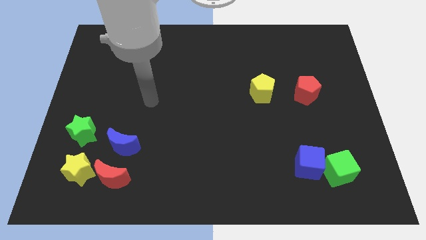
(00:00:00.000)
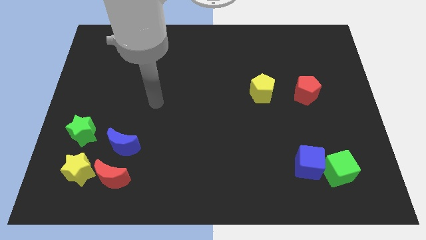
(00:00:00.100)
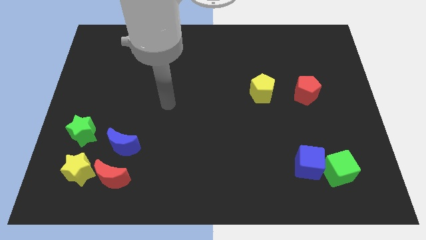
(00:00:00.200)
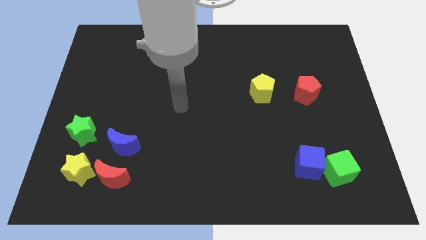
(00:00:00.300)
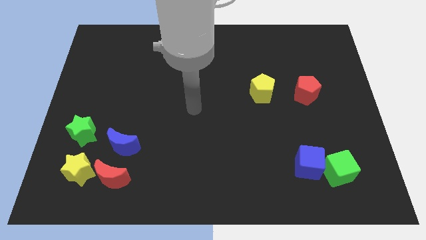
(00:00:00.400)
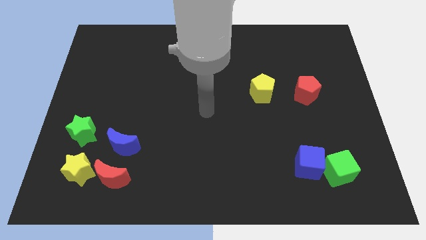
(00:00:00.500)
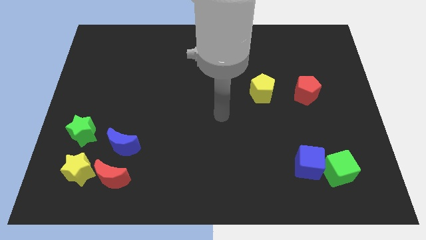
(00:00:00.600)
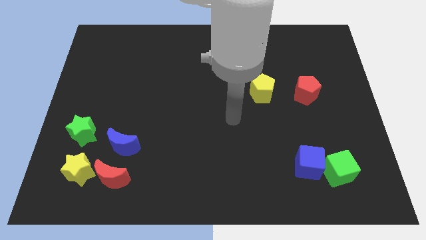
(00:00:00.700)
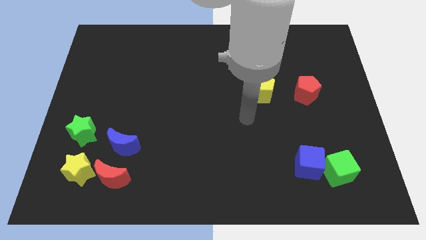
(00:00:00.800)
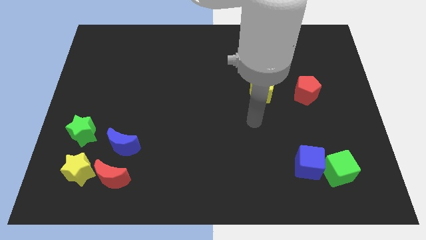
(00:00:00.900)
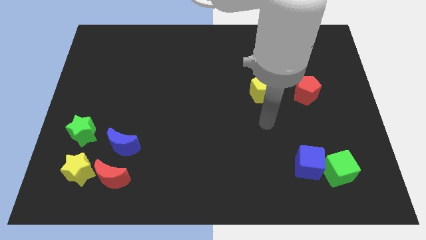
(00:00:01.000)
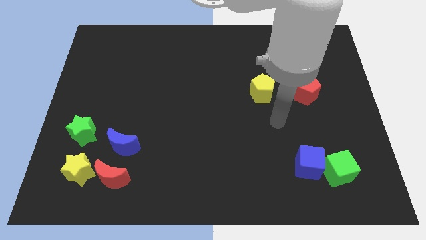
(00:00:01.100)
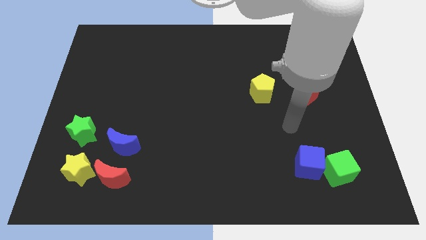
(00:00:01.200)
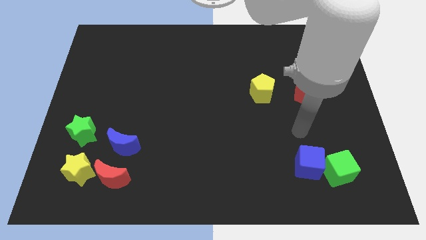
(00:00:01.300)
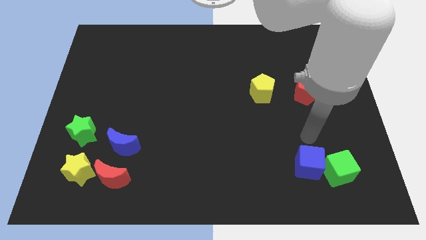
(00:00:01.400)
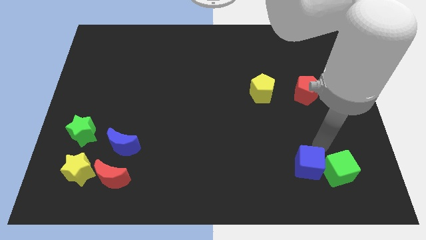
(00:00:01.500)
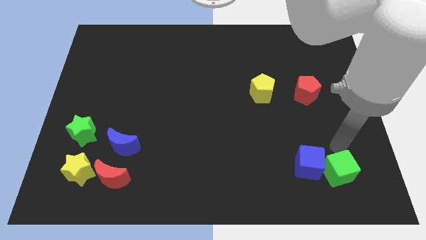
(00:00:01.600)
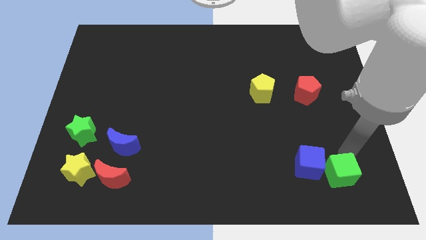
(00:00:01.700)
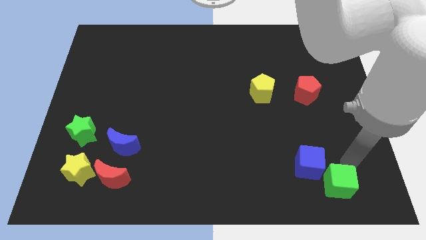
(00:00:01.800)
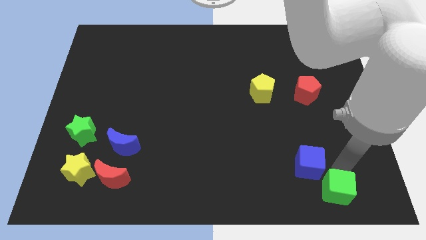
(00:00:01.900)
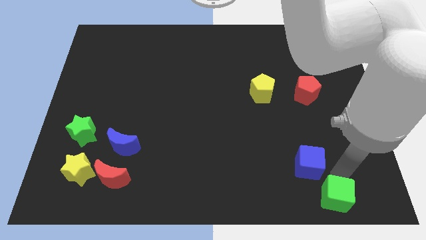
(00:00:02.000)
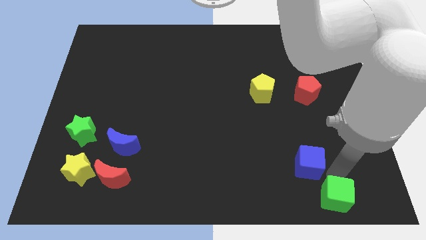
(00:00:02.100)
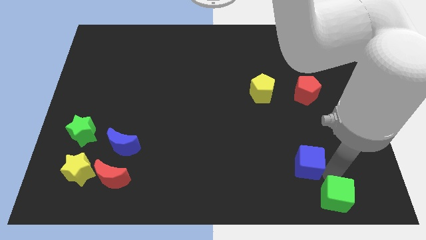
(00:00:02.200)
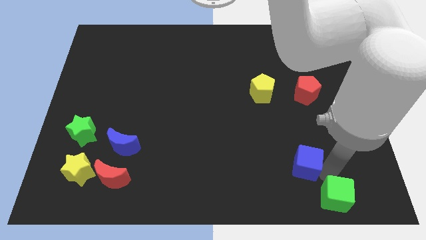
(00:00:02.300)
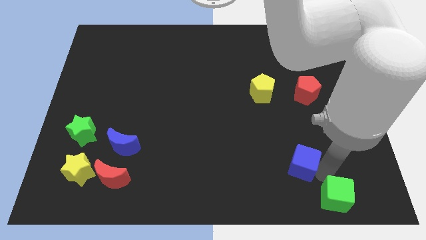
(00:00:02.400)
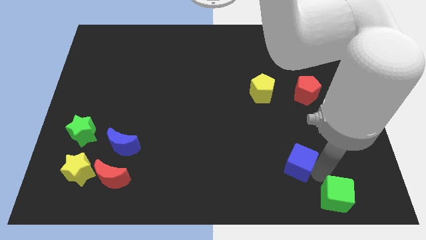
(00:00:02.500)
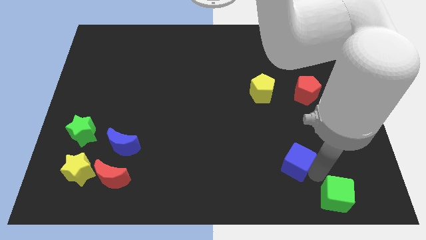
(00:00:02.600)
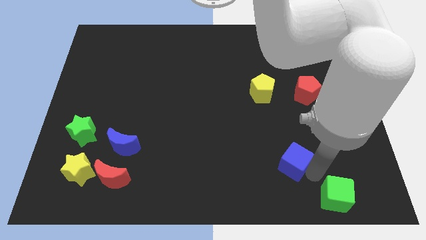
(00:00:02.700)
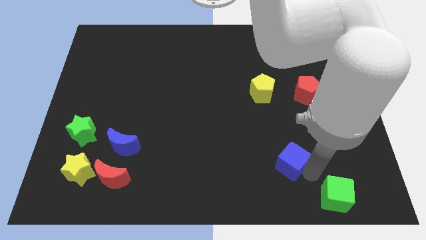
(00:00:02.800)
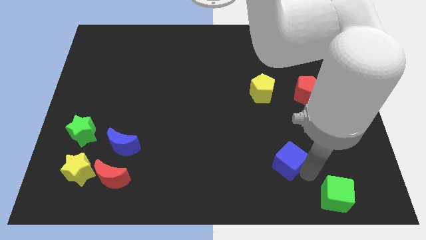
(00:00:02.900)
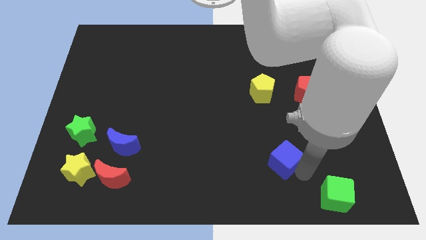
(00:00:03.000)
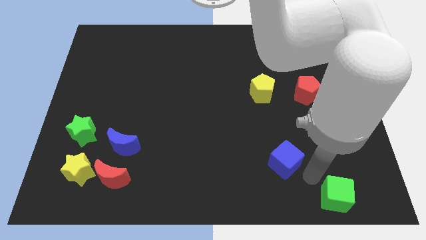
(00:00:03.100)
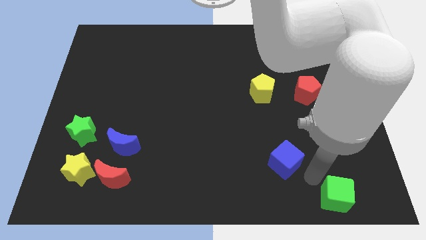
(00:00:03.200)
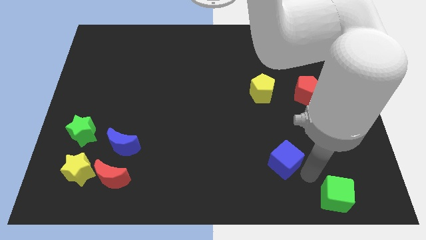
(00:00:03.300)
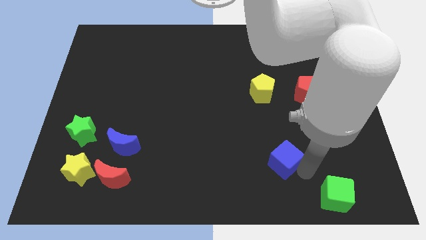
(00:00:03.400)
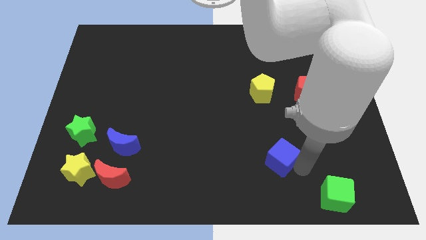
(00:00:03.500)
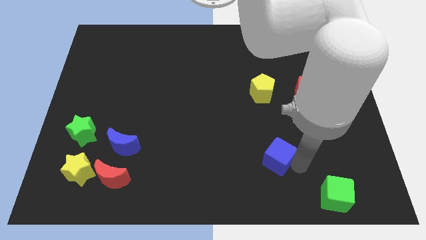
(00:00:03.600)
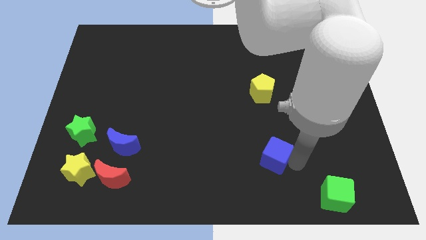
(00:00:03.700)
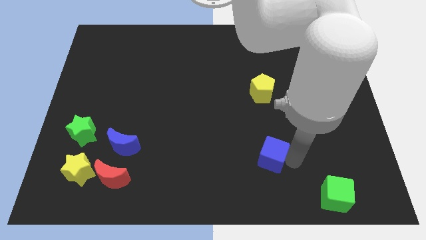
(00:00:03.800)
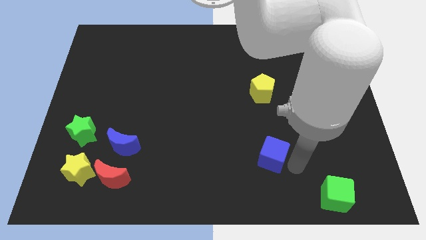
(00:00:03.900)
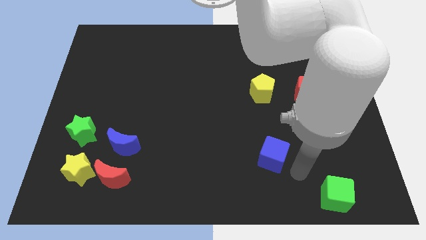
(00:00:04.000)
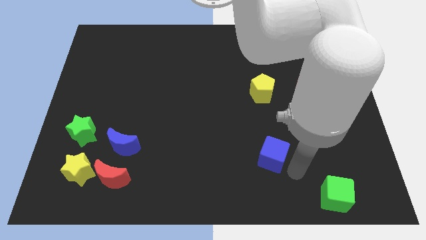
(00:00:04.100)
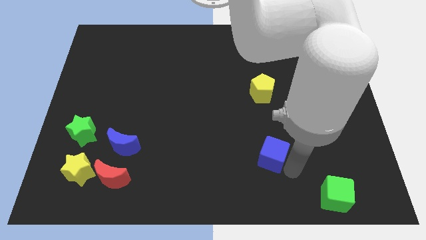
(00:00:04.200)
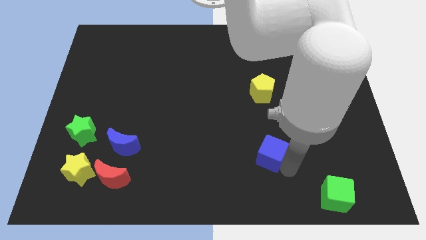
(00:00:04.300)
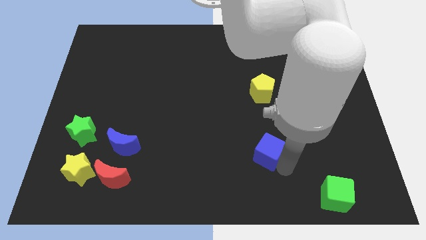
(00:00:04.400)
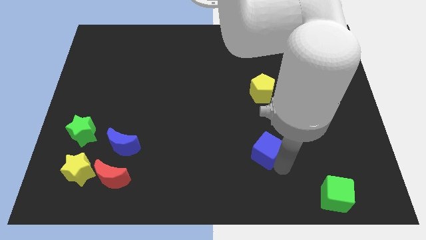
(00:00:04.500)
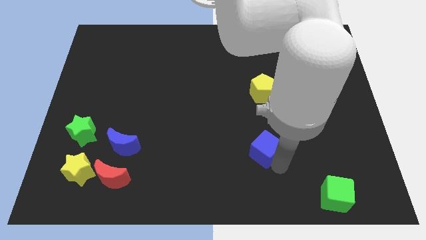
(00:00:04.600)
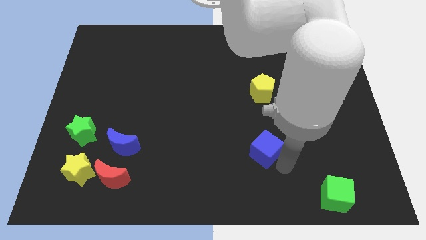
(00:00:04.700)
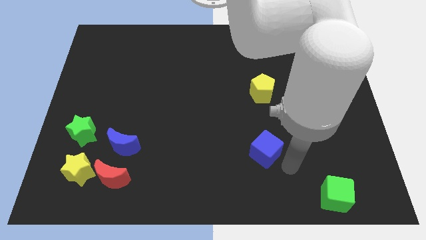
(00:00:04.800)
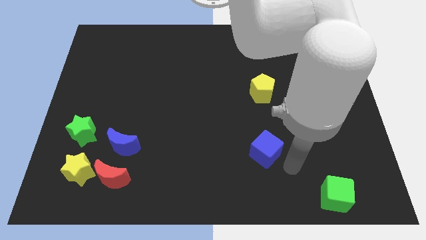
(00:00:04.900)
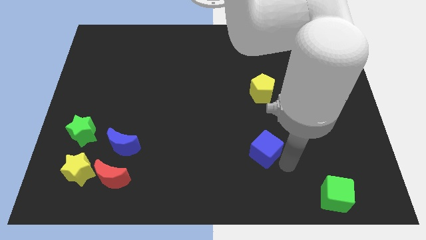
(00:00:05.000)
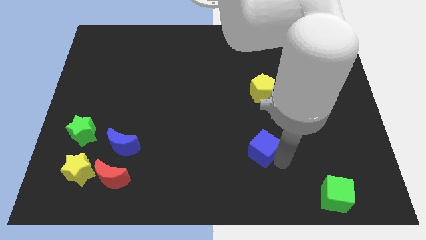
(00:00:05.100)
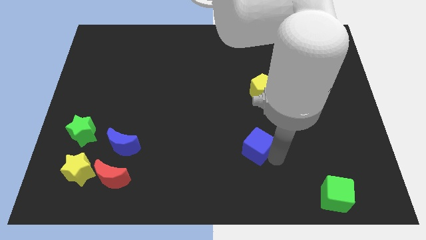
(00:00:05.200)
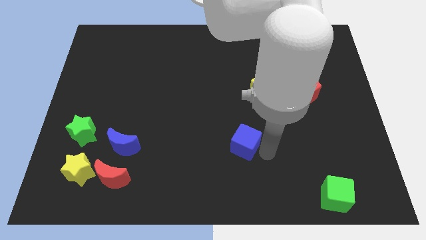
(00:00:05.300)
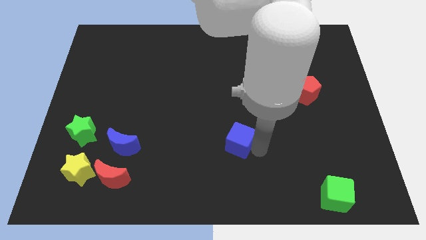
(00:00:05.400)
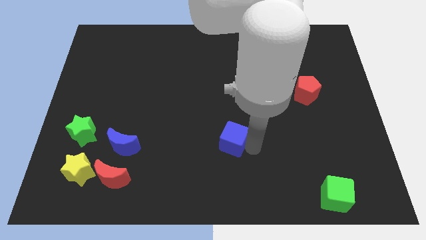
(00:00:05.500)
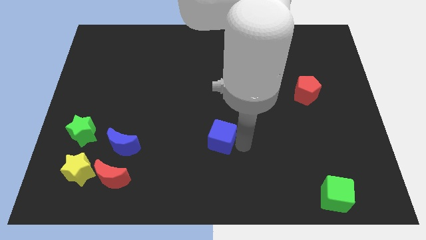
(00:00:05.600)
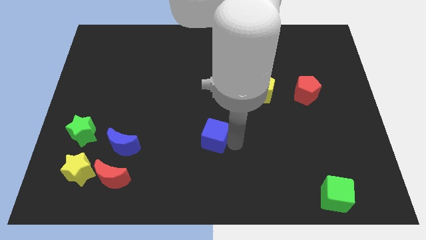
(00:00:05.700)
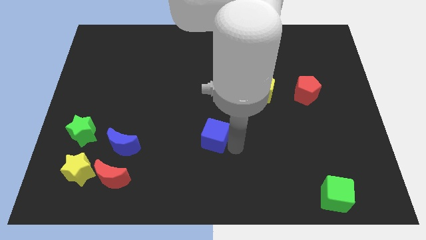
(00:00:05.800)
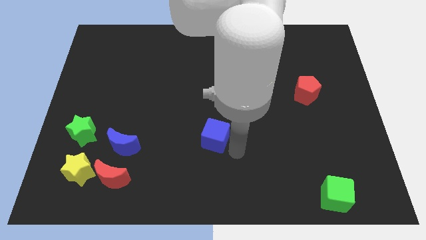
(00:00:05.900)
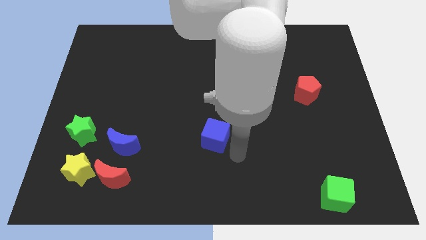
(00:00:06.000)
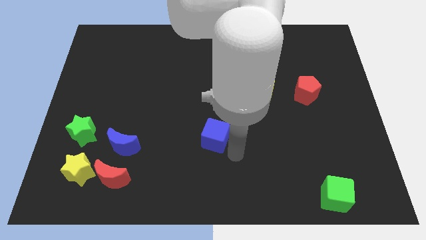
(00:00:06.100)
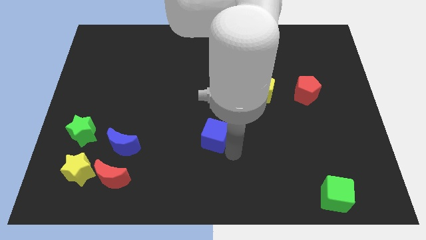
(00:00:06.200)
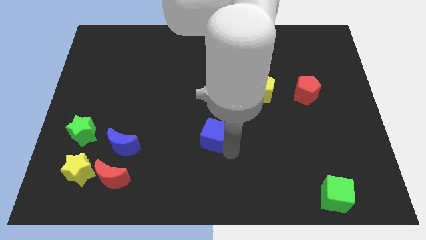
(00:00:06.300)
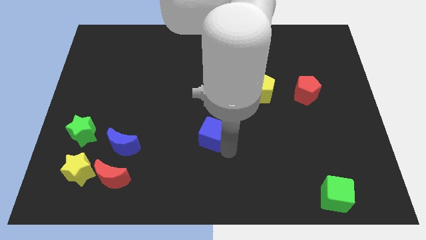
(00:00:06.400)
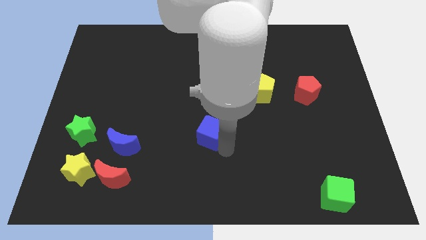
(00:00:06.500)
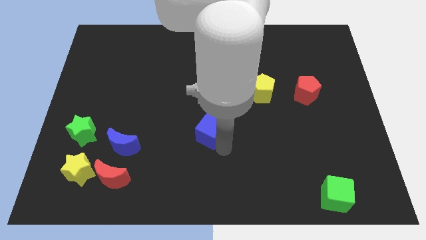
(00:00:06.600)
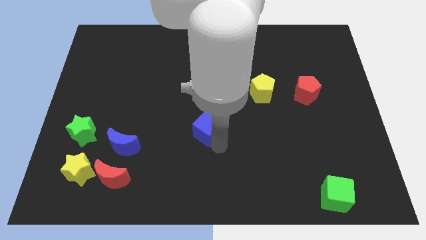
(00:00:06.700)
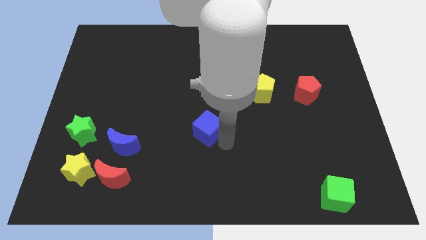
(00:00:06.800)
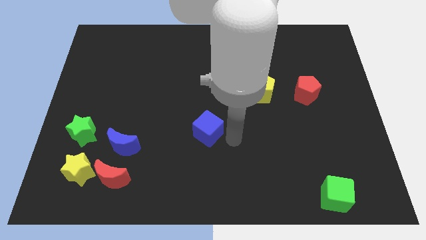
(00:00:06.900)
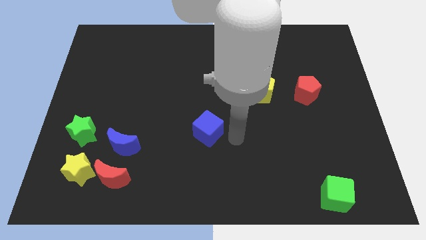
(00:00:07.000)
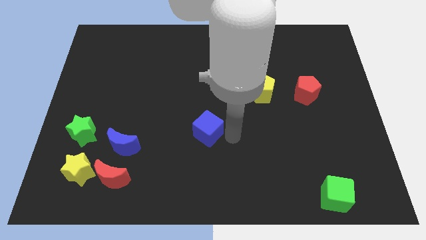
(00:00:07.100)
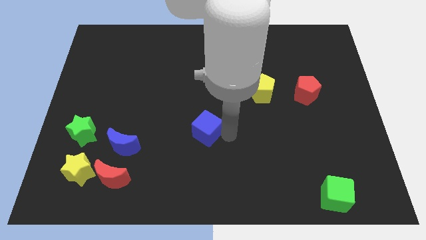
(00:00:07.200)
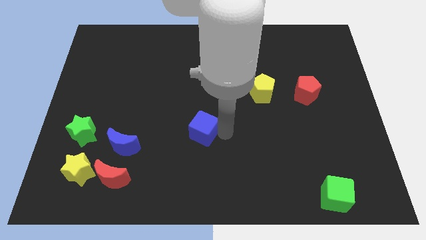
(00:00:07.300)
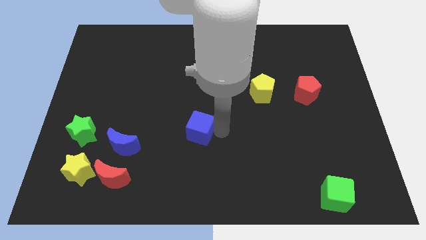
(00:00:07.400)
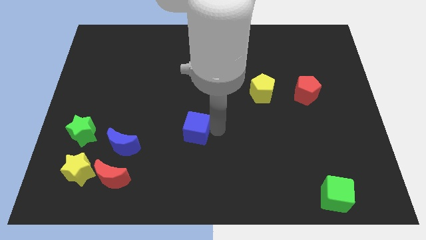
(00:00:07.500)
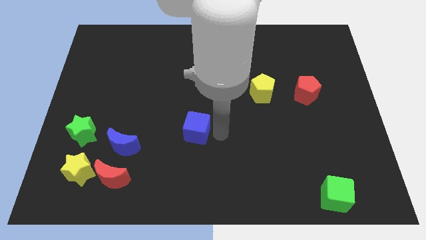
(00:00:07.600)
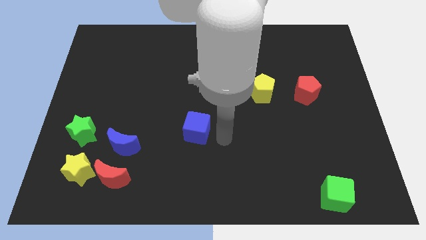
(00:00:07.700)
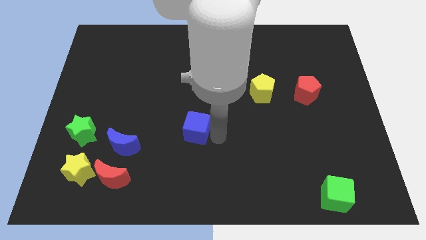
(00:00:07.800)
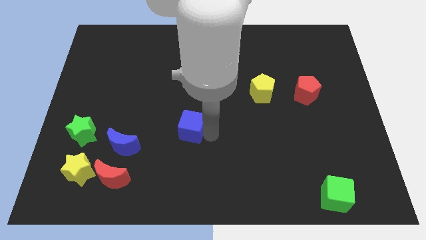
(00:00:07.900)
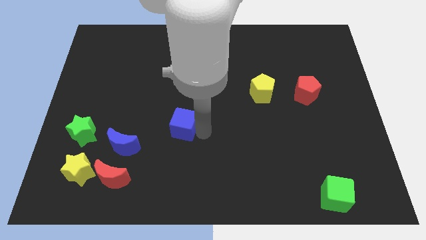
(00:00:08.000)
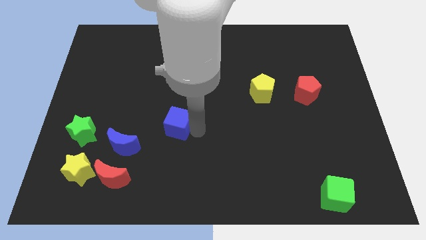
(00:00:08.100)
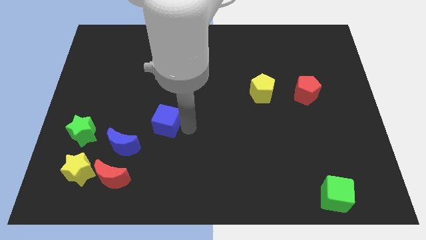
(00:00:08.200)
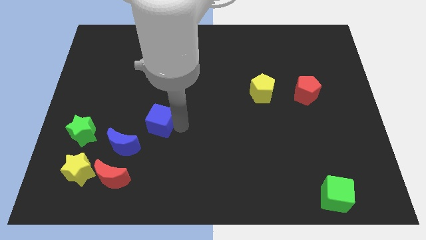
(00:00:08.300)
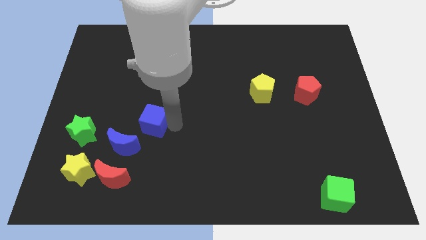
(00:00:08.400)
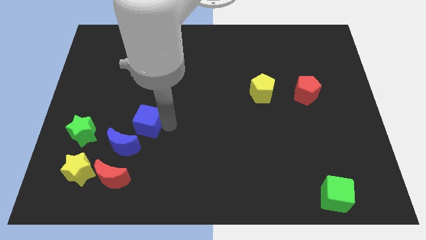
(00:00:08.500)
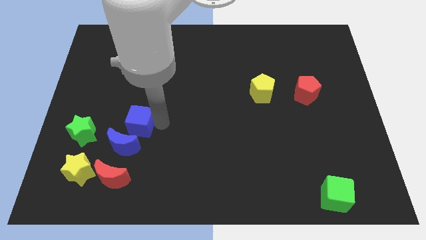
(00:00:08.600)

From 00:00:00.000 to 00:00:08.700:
slide the blue cube to the top side of the red moon
